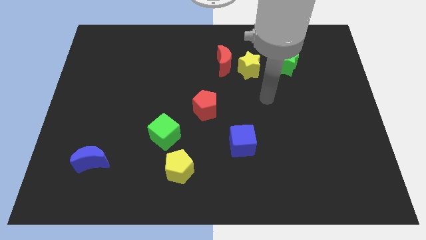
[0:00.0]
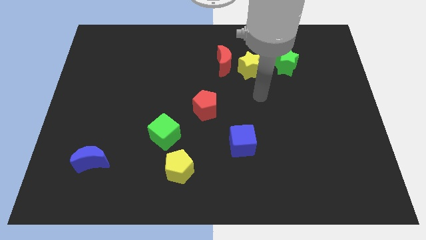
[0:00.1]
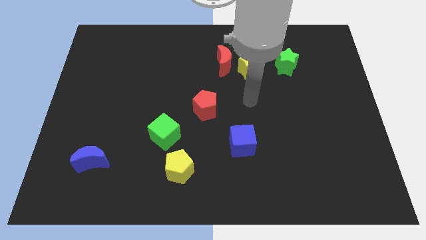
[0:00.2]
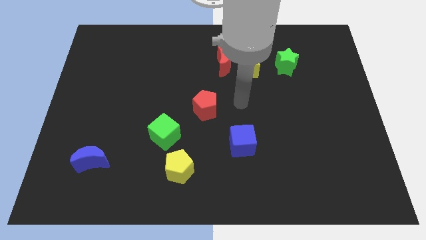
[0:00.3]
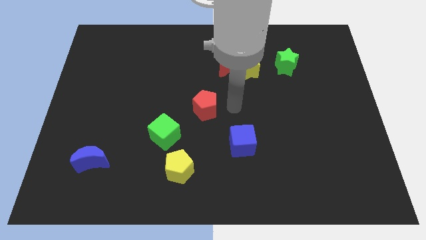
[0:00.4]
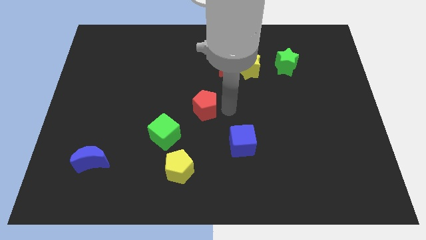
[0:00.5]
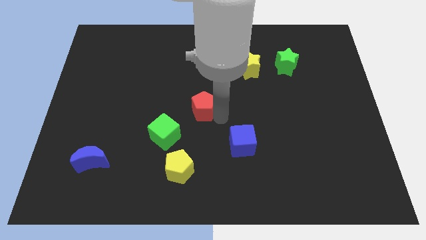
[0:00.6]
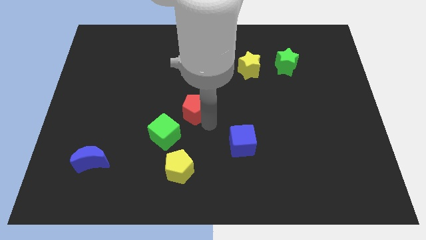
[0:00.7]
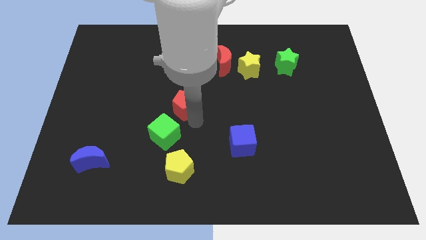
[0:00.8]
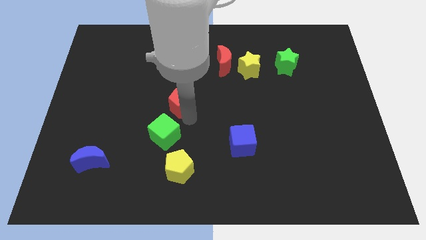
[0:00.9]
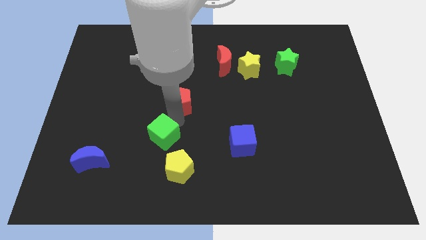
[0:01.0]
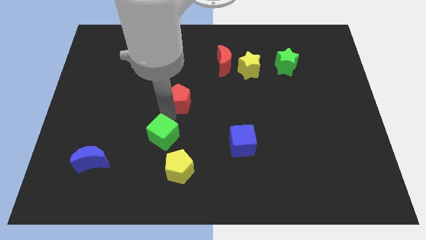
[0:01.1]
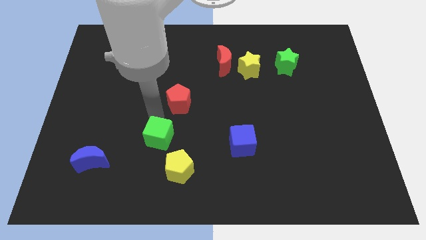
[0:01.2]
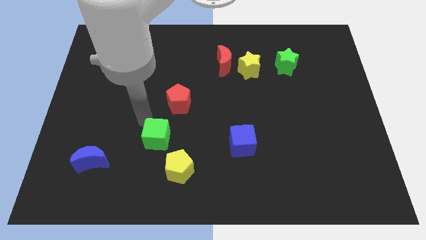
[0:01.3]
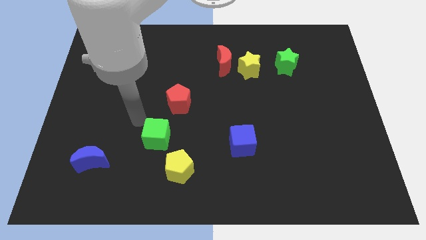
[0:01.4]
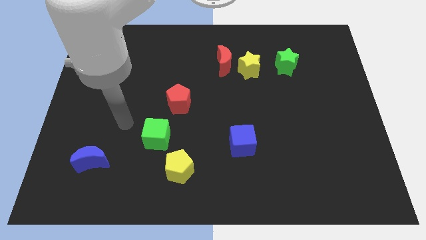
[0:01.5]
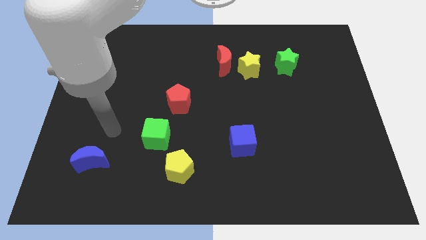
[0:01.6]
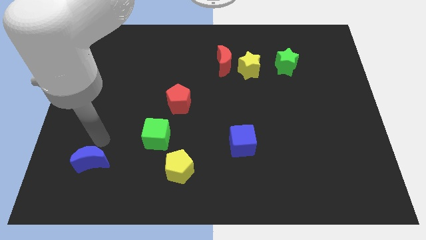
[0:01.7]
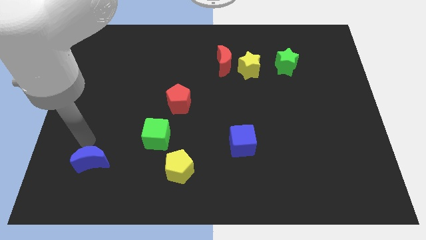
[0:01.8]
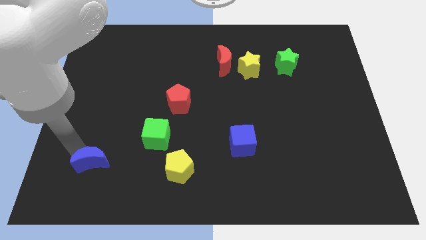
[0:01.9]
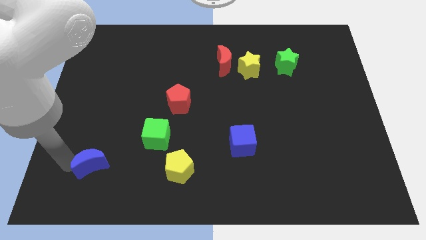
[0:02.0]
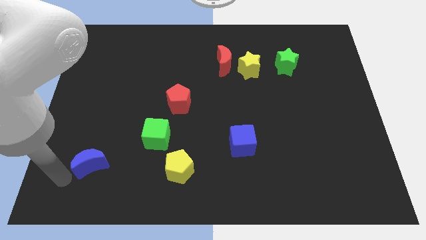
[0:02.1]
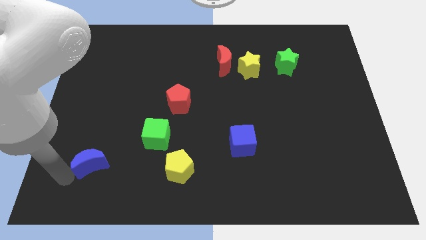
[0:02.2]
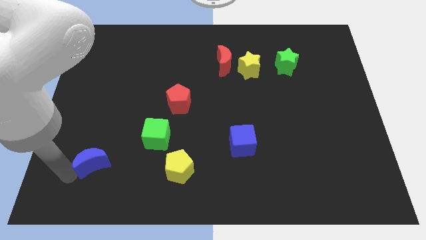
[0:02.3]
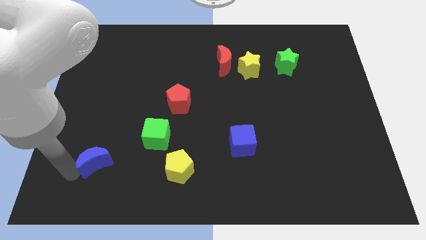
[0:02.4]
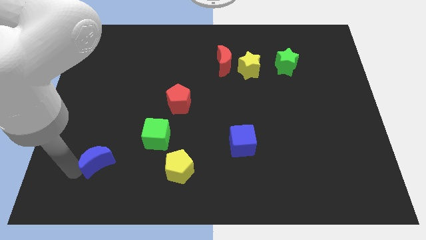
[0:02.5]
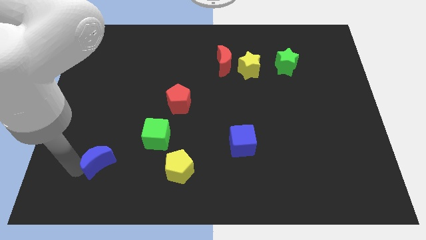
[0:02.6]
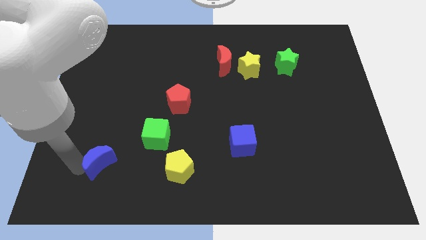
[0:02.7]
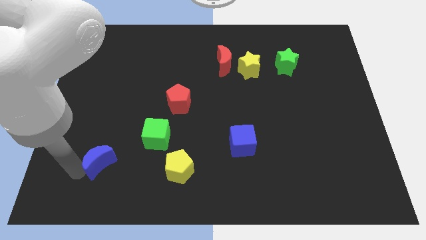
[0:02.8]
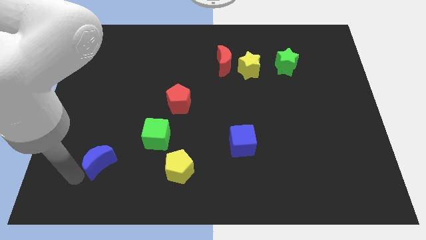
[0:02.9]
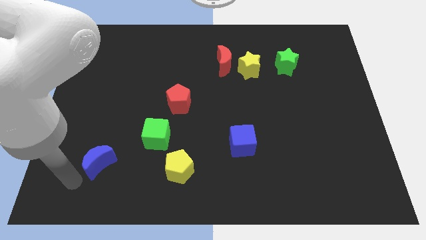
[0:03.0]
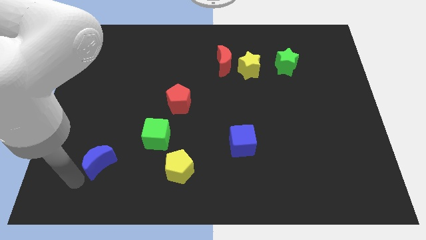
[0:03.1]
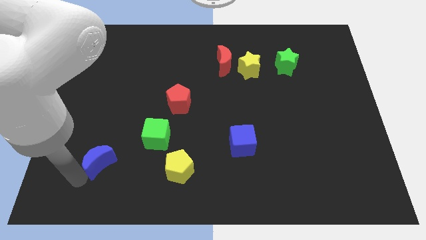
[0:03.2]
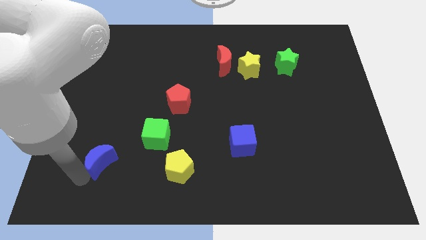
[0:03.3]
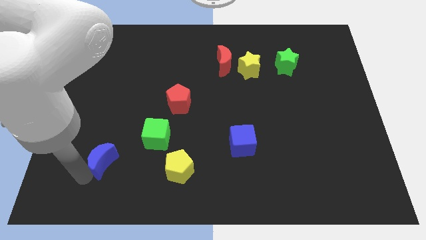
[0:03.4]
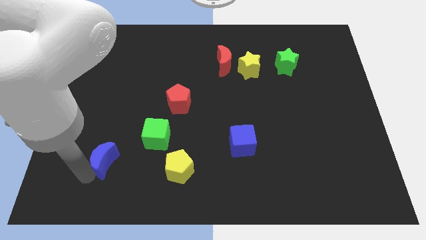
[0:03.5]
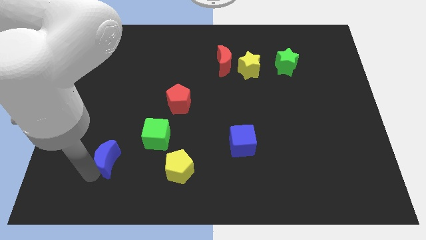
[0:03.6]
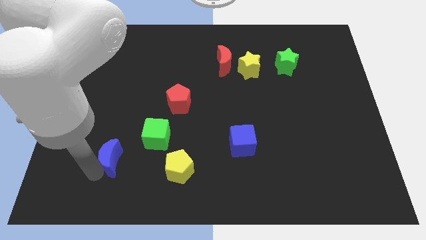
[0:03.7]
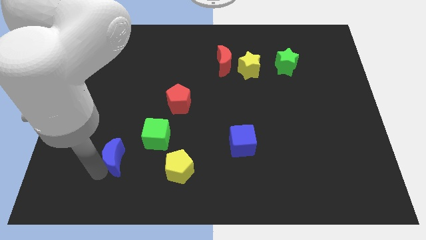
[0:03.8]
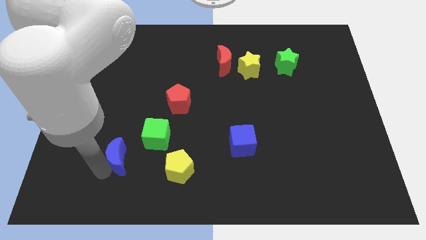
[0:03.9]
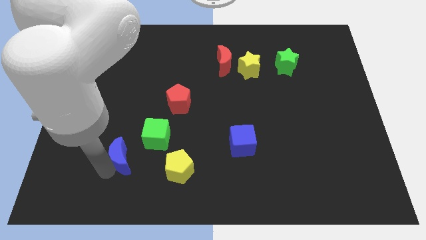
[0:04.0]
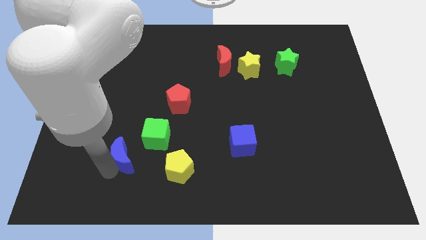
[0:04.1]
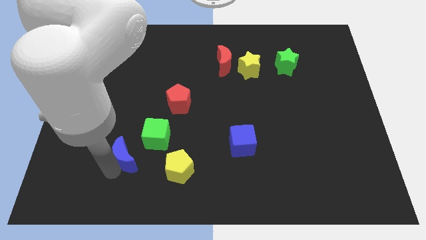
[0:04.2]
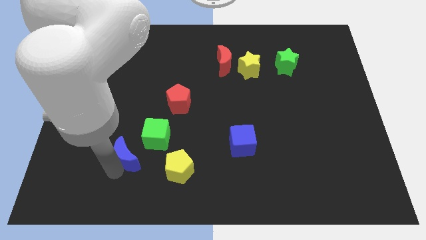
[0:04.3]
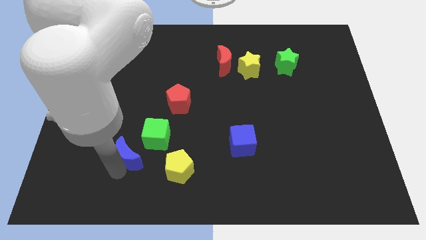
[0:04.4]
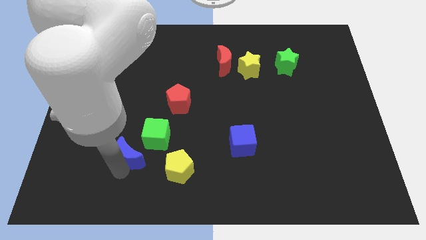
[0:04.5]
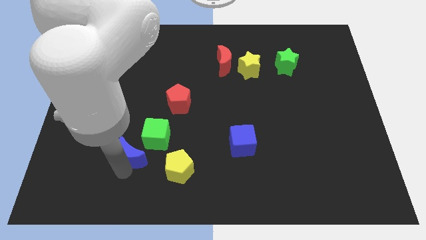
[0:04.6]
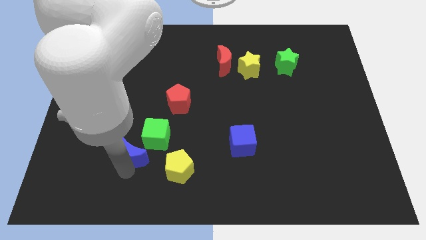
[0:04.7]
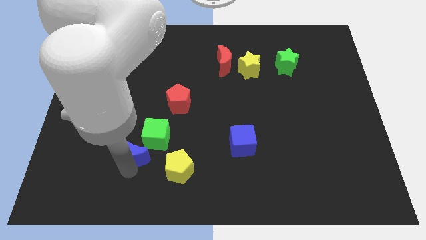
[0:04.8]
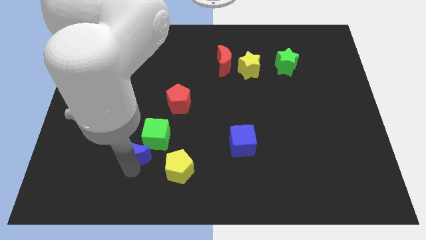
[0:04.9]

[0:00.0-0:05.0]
put the blue moon towards the green cube

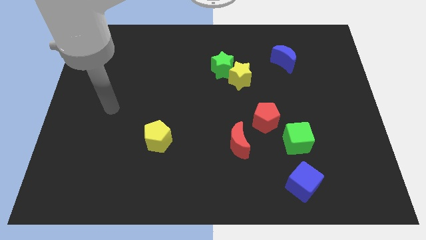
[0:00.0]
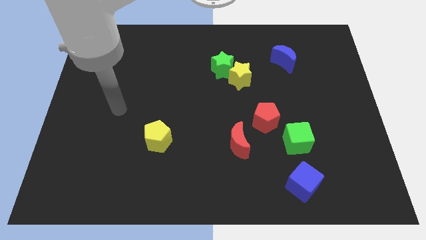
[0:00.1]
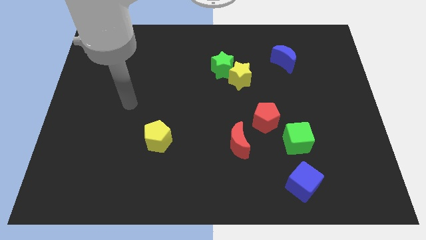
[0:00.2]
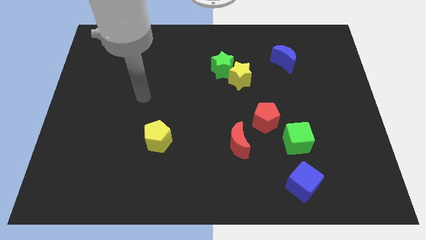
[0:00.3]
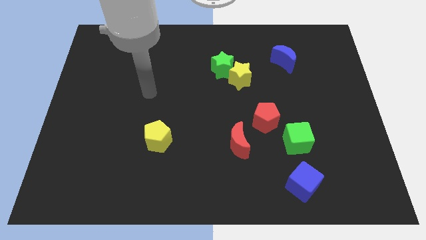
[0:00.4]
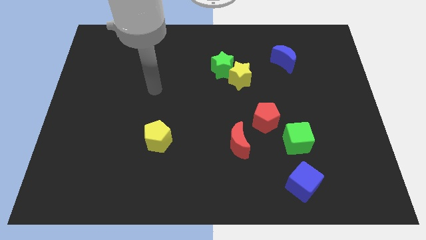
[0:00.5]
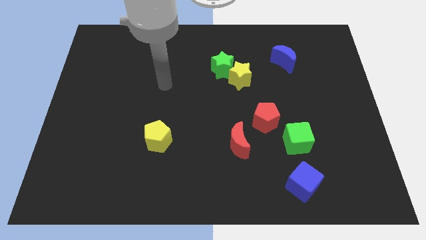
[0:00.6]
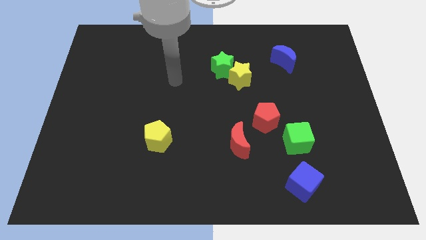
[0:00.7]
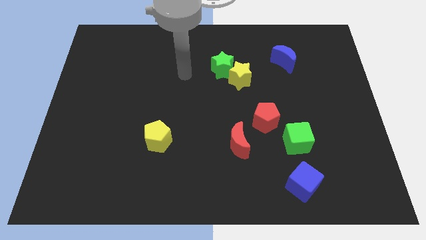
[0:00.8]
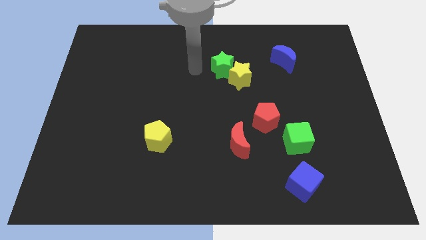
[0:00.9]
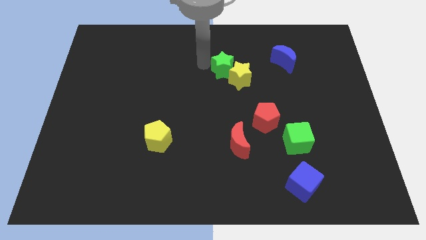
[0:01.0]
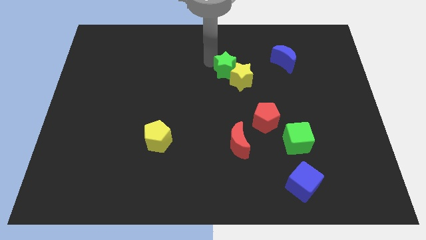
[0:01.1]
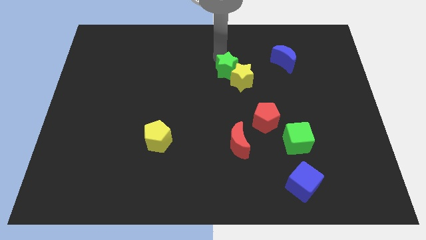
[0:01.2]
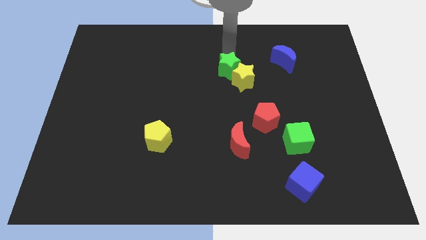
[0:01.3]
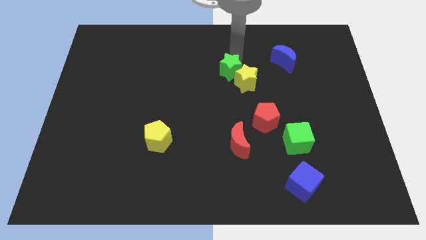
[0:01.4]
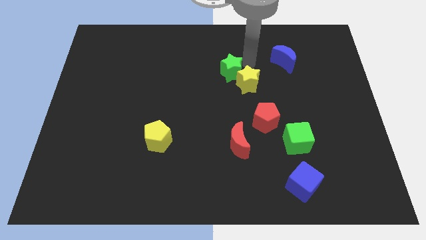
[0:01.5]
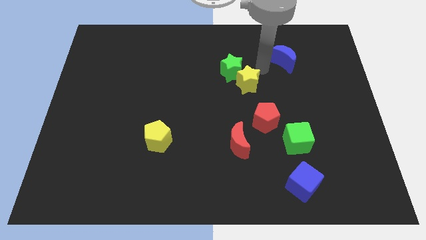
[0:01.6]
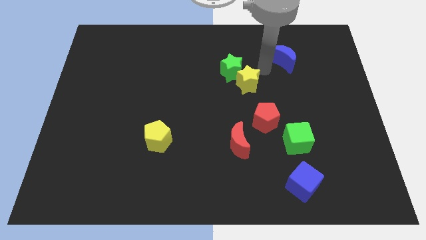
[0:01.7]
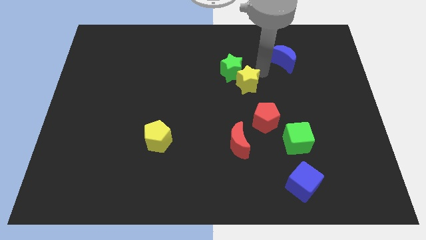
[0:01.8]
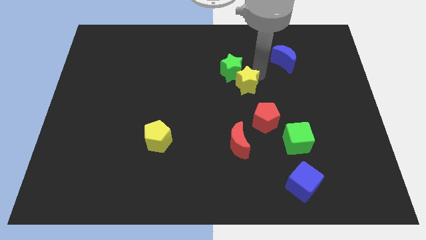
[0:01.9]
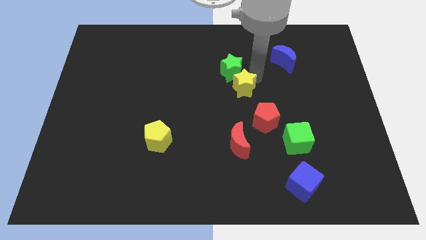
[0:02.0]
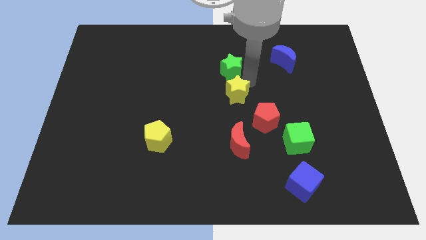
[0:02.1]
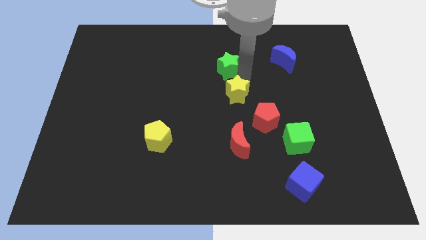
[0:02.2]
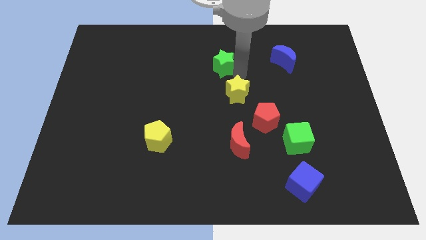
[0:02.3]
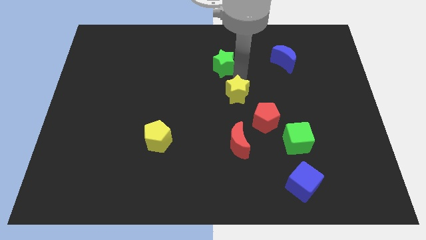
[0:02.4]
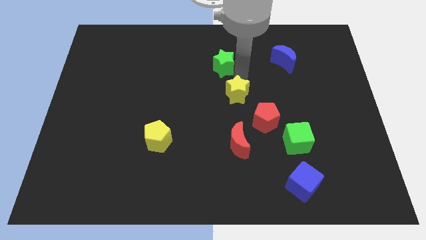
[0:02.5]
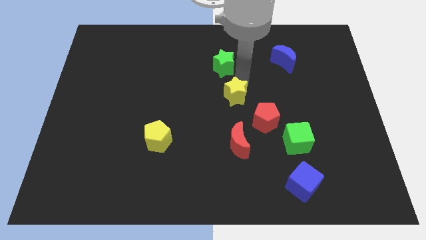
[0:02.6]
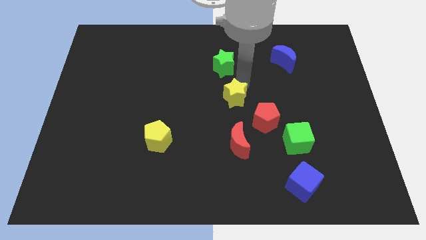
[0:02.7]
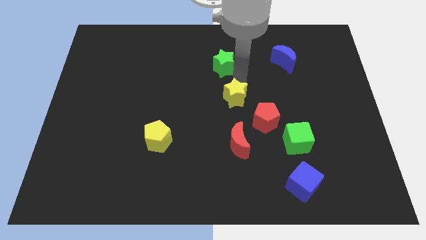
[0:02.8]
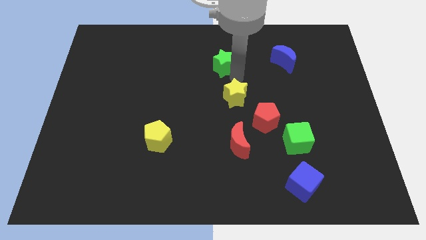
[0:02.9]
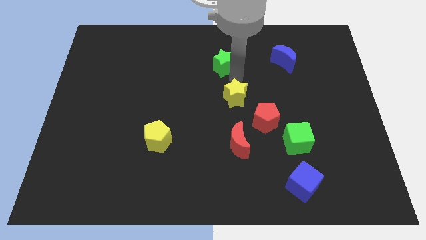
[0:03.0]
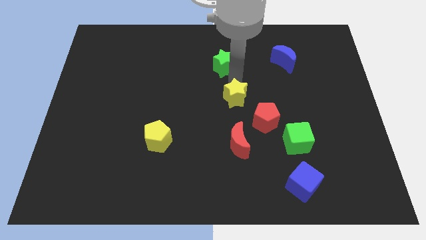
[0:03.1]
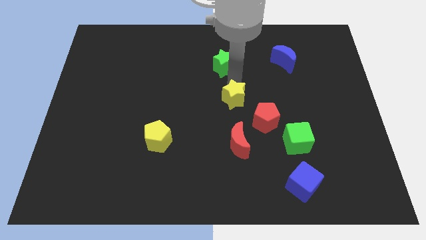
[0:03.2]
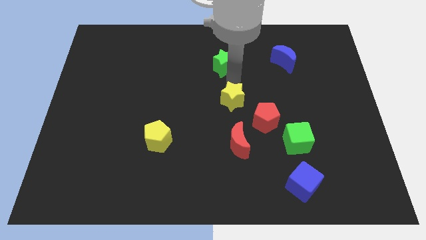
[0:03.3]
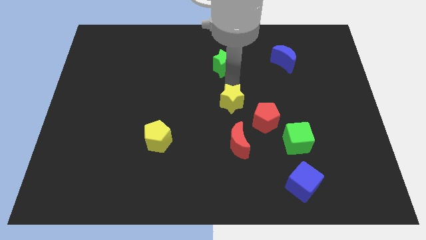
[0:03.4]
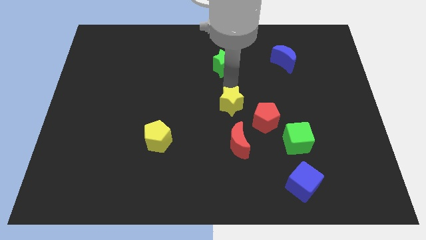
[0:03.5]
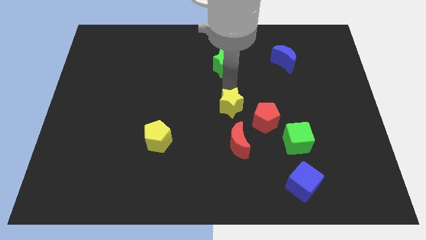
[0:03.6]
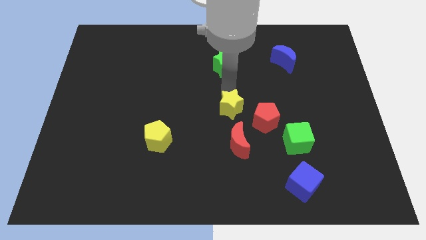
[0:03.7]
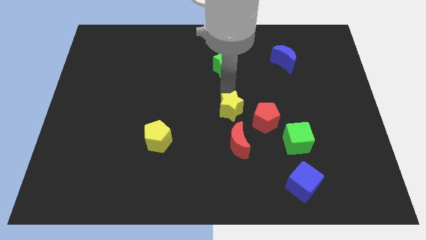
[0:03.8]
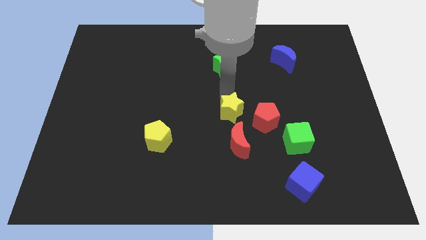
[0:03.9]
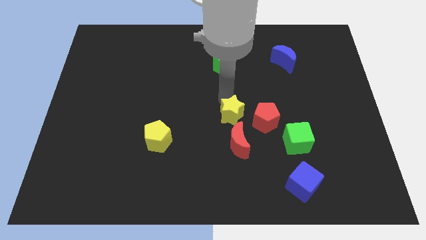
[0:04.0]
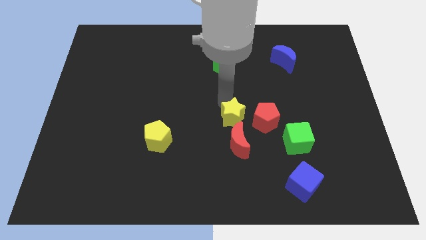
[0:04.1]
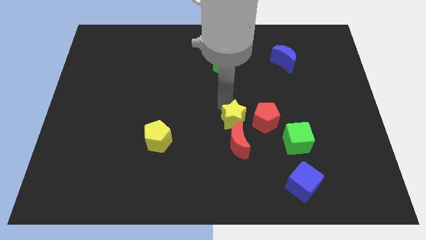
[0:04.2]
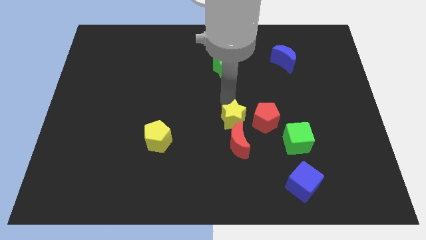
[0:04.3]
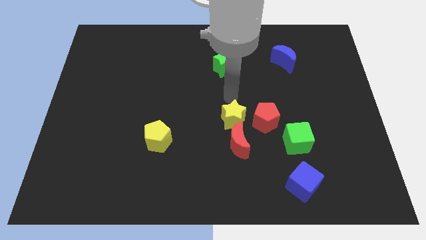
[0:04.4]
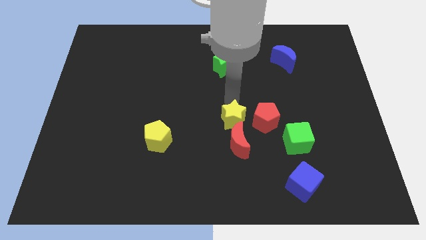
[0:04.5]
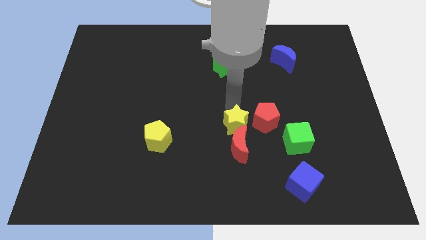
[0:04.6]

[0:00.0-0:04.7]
slide the yellow star next to the red moon
